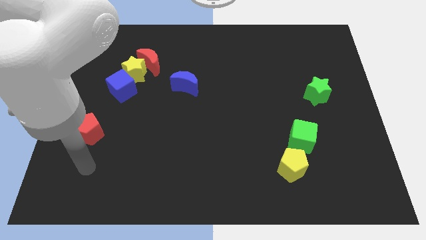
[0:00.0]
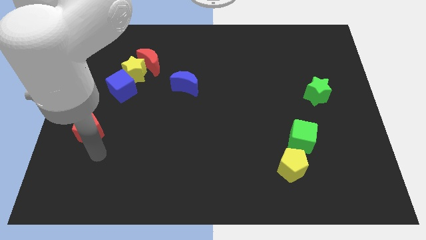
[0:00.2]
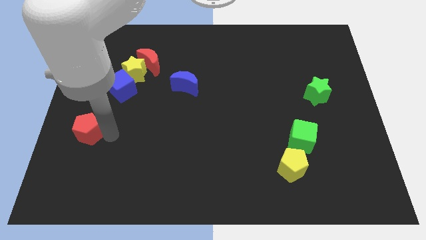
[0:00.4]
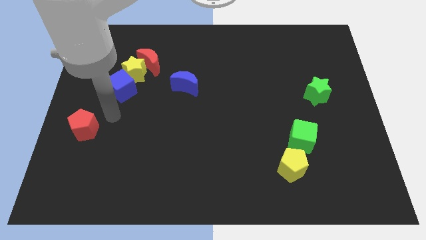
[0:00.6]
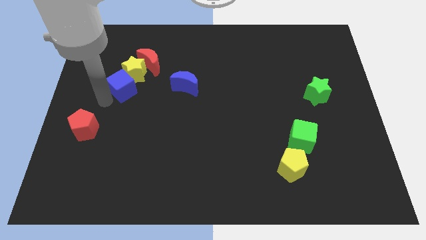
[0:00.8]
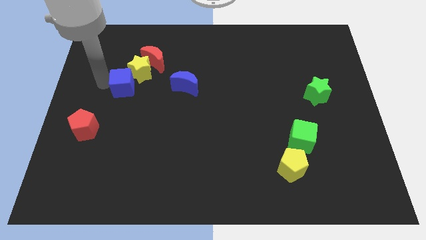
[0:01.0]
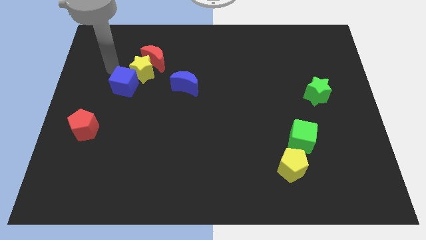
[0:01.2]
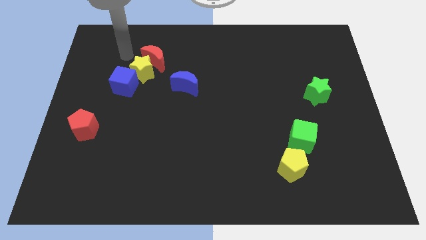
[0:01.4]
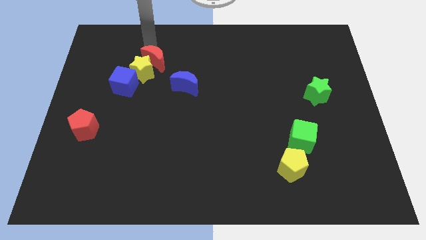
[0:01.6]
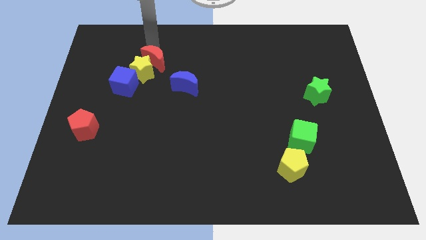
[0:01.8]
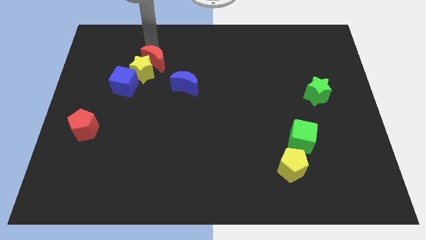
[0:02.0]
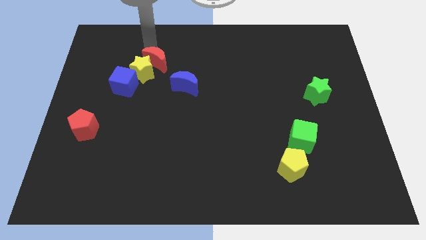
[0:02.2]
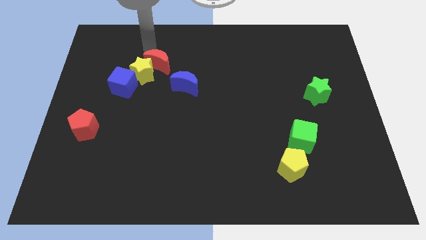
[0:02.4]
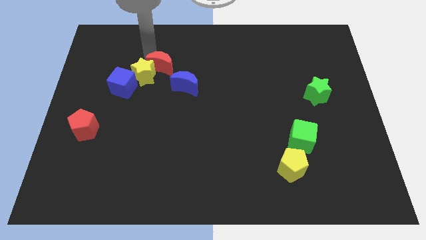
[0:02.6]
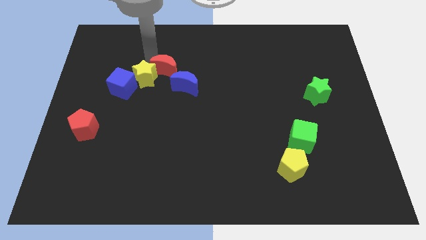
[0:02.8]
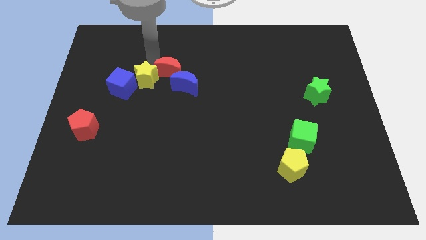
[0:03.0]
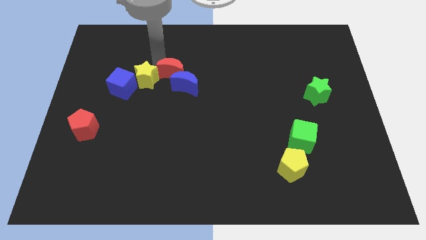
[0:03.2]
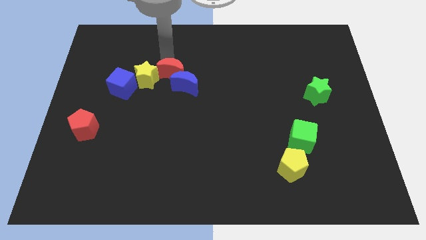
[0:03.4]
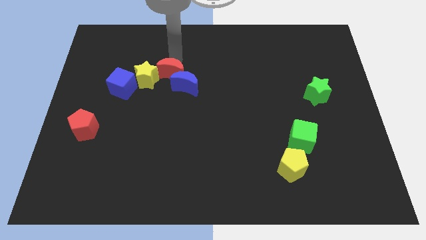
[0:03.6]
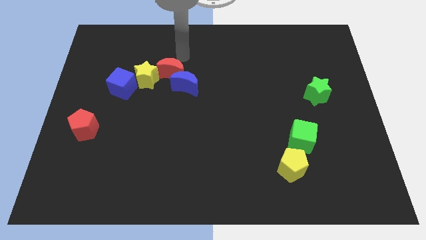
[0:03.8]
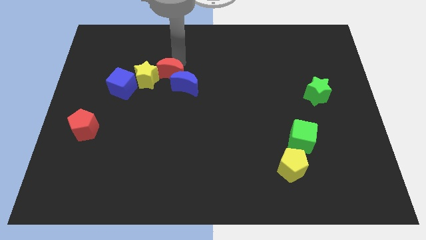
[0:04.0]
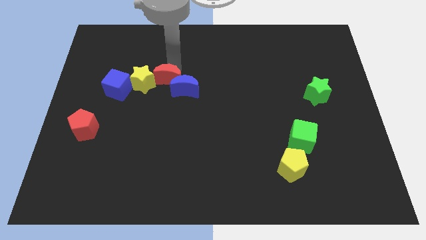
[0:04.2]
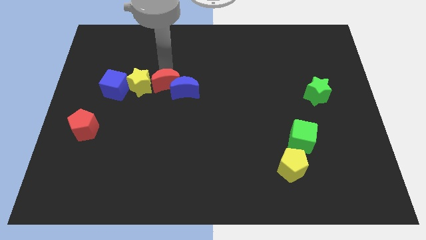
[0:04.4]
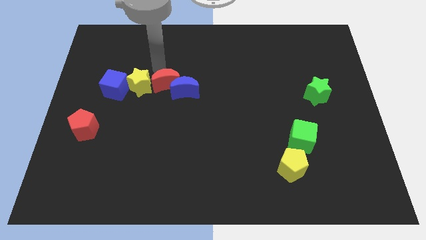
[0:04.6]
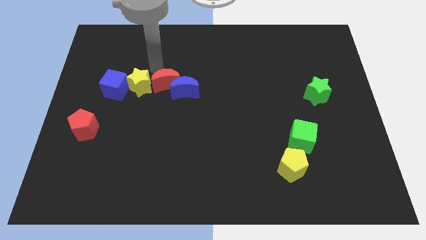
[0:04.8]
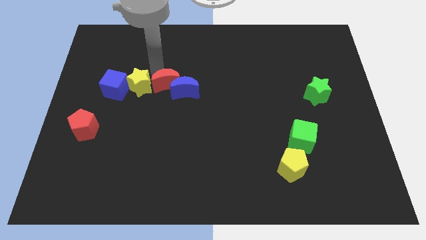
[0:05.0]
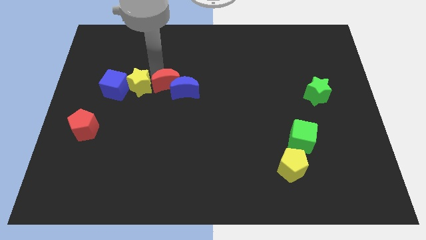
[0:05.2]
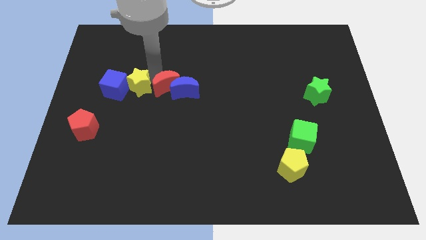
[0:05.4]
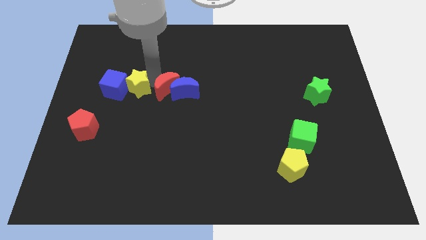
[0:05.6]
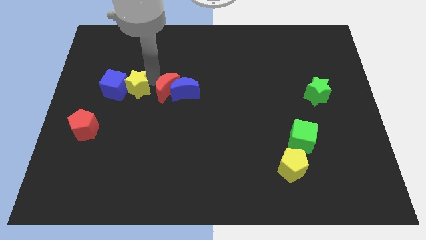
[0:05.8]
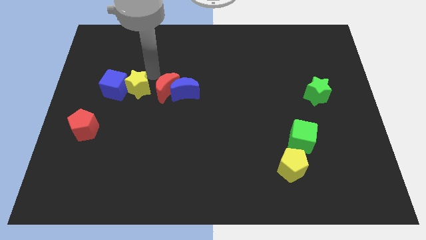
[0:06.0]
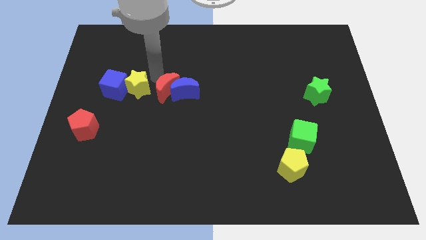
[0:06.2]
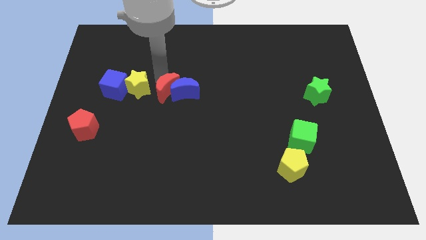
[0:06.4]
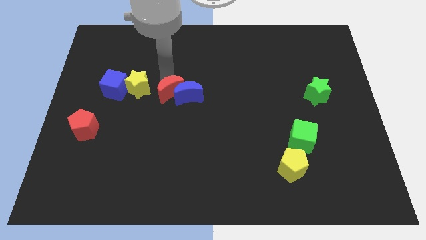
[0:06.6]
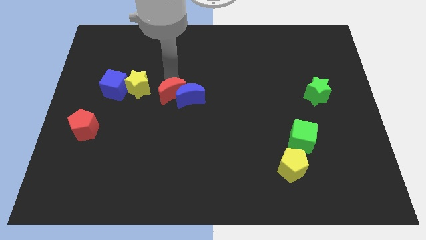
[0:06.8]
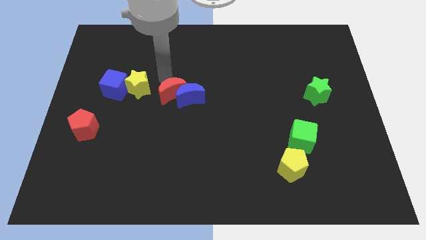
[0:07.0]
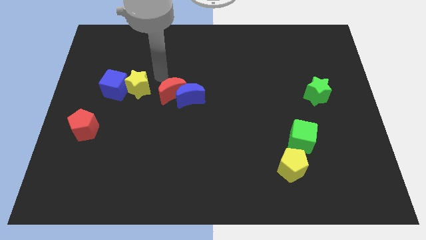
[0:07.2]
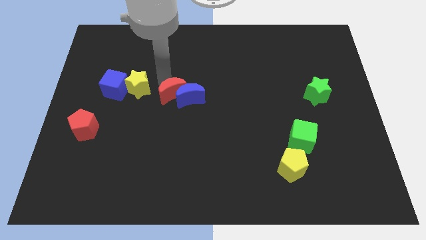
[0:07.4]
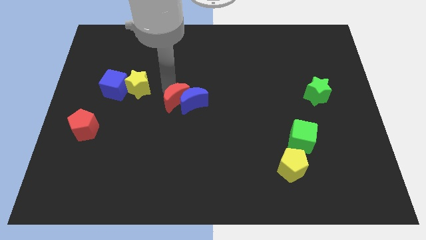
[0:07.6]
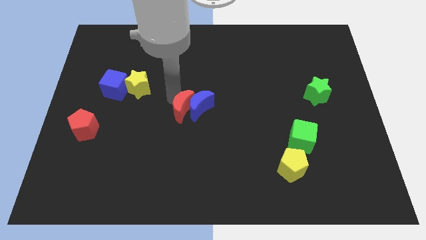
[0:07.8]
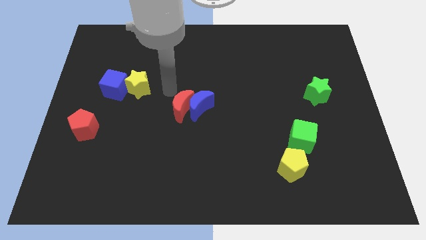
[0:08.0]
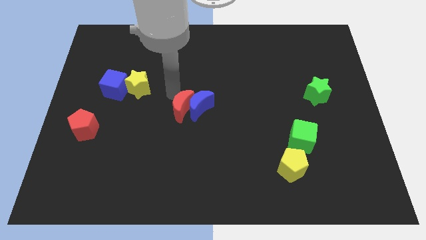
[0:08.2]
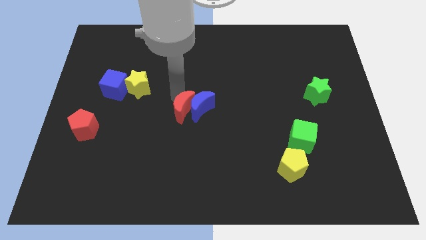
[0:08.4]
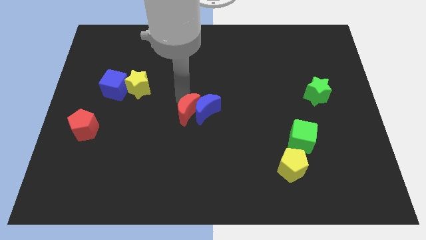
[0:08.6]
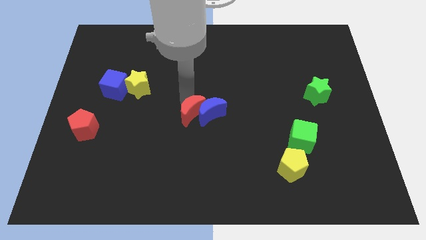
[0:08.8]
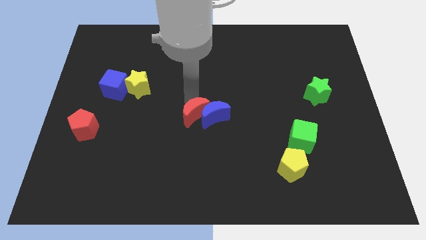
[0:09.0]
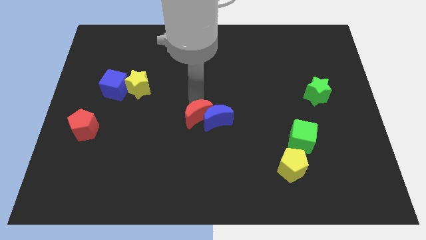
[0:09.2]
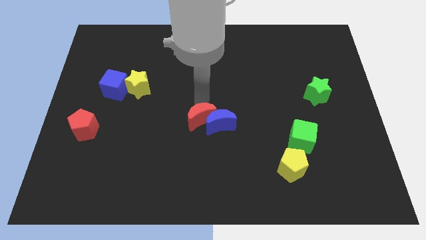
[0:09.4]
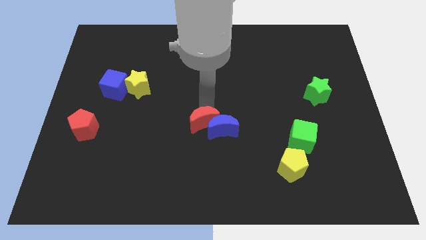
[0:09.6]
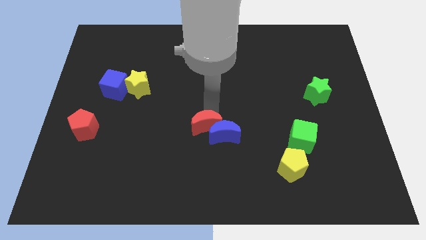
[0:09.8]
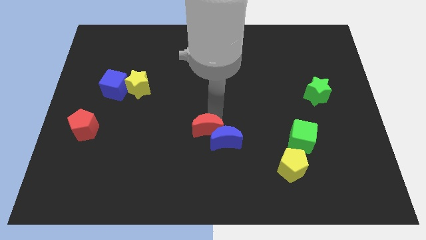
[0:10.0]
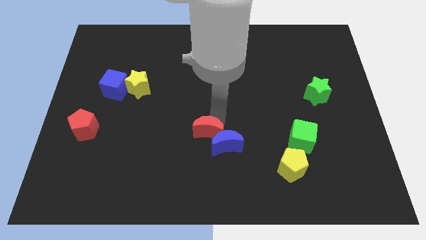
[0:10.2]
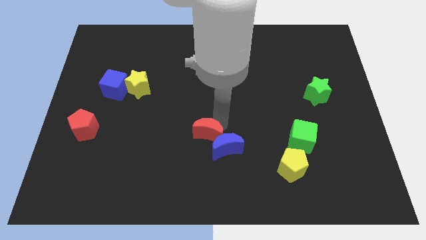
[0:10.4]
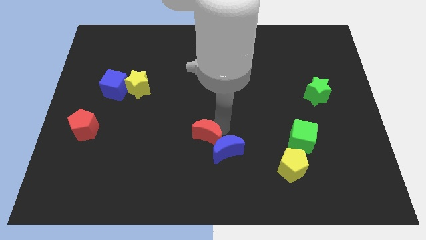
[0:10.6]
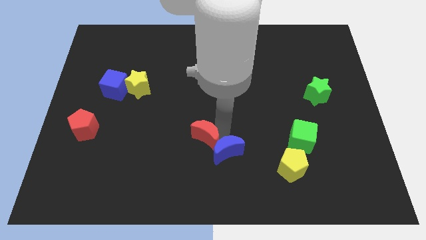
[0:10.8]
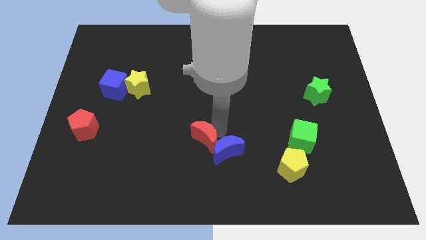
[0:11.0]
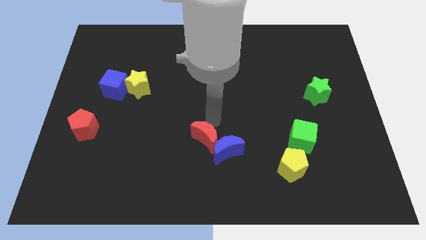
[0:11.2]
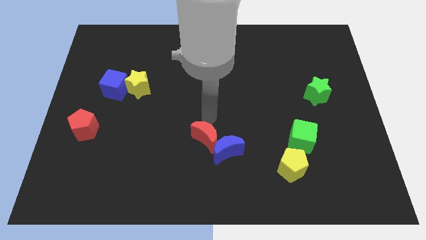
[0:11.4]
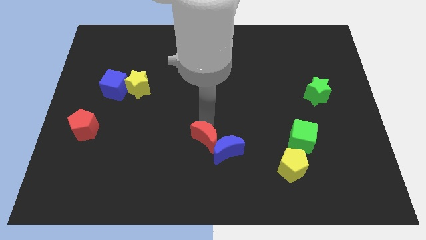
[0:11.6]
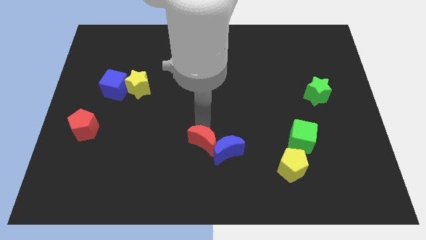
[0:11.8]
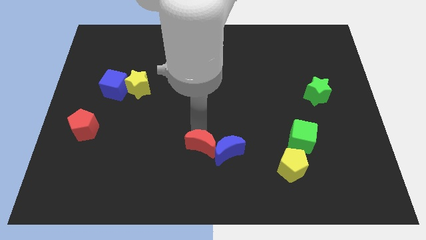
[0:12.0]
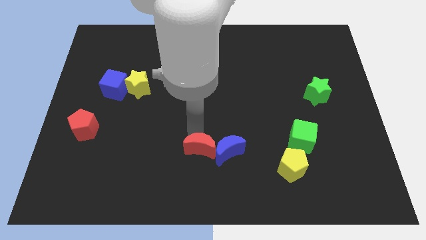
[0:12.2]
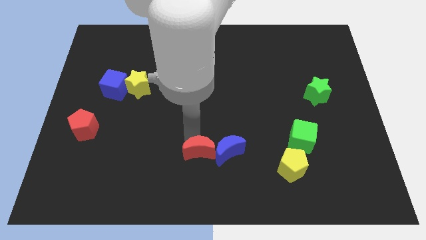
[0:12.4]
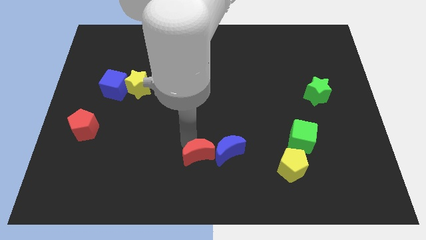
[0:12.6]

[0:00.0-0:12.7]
slide the red moon to the bottom side

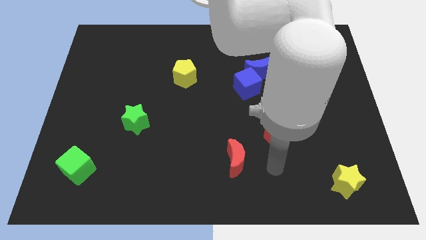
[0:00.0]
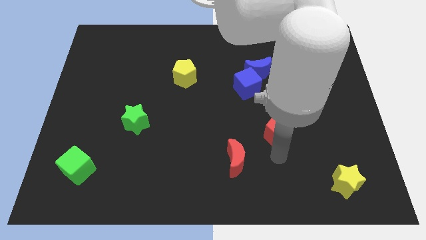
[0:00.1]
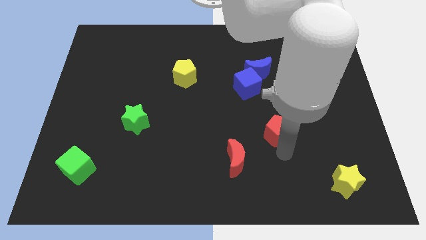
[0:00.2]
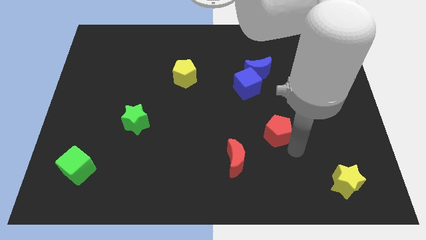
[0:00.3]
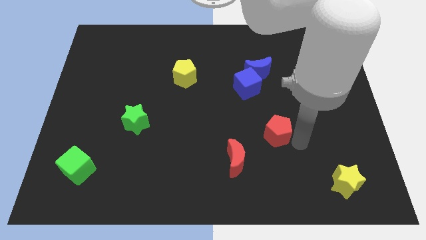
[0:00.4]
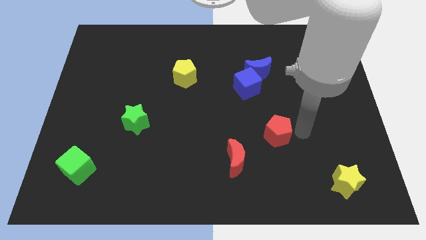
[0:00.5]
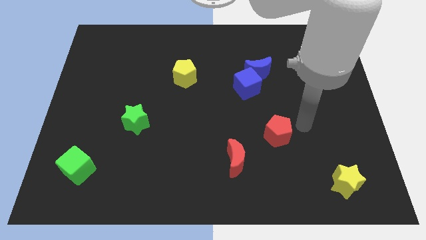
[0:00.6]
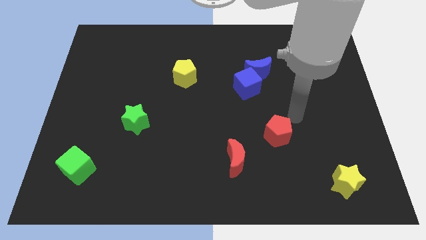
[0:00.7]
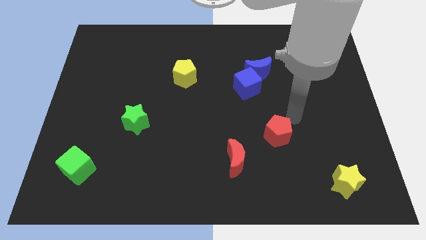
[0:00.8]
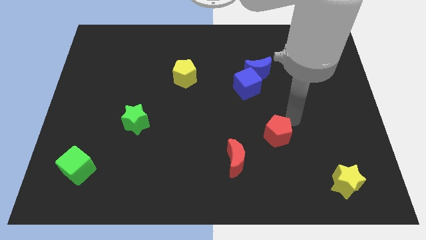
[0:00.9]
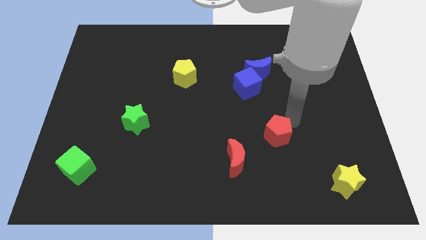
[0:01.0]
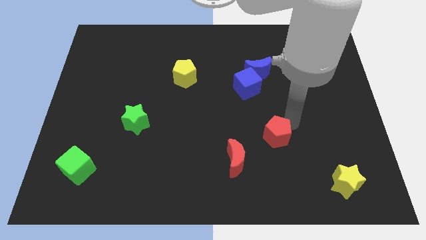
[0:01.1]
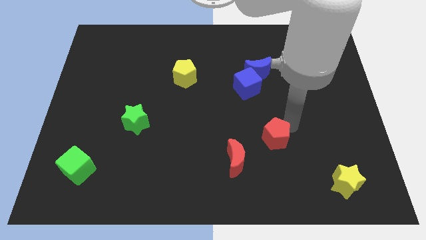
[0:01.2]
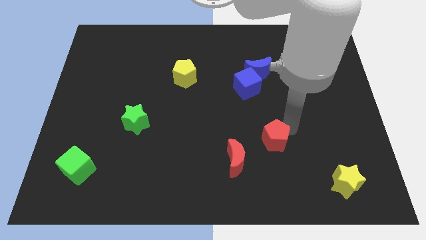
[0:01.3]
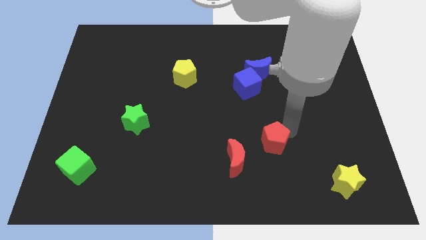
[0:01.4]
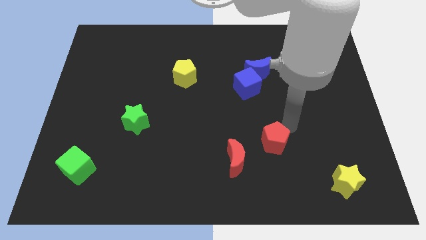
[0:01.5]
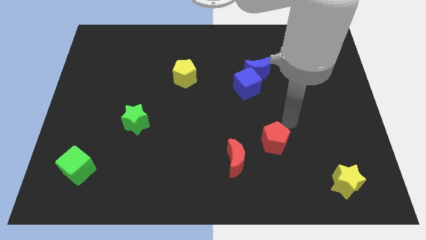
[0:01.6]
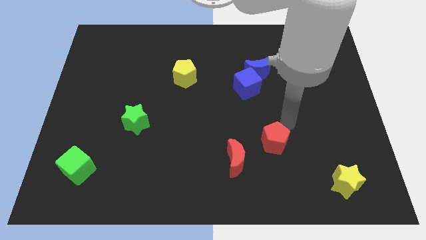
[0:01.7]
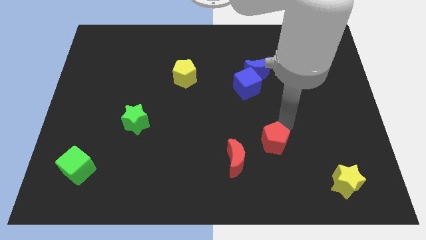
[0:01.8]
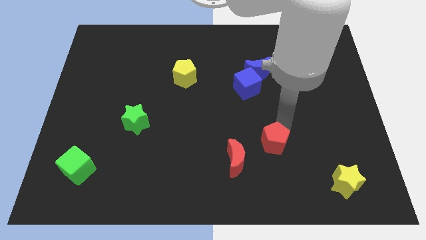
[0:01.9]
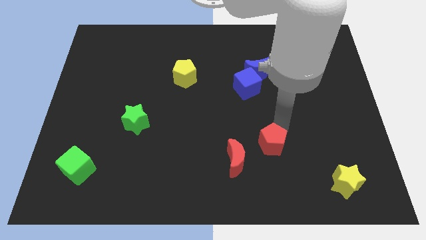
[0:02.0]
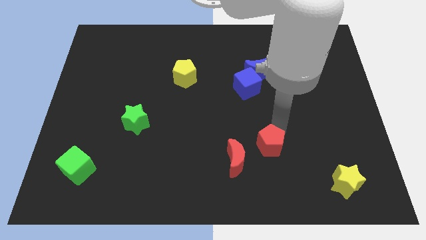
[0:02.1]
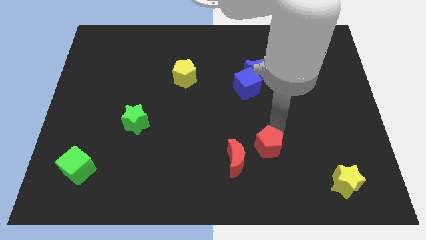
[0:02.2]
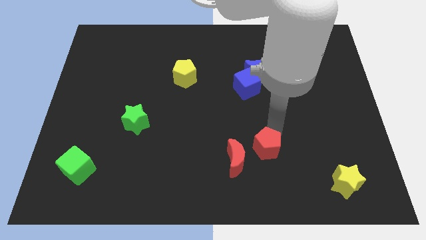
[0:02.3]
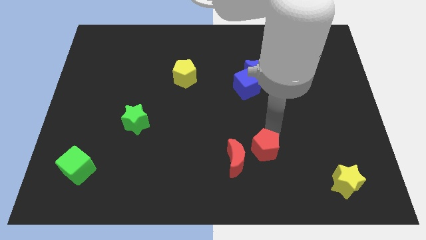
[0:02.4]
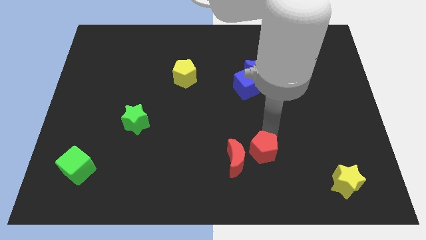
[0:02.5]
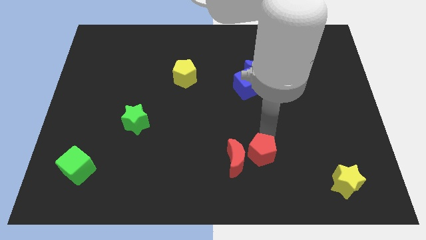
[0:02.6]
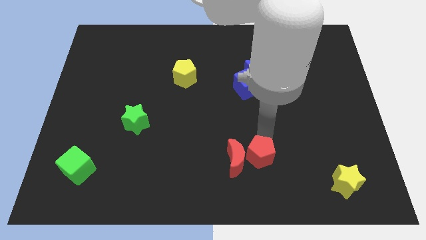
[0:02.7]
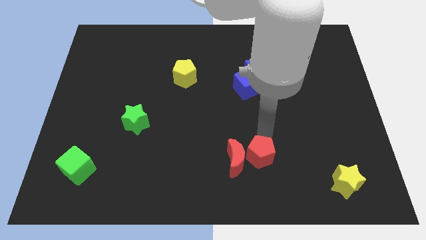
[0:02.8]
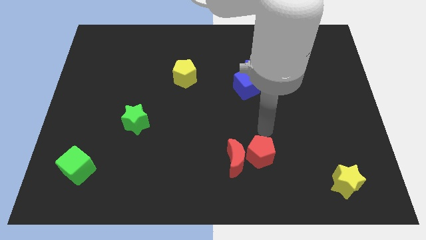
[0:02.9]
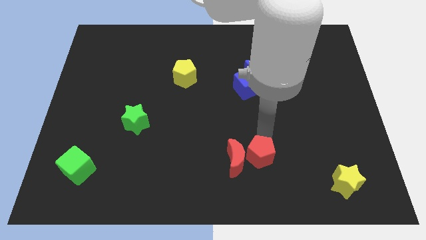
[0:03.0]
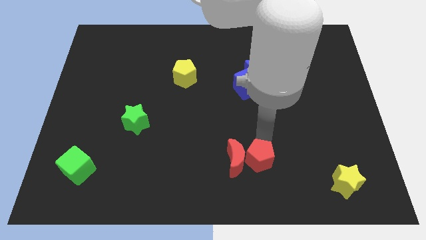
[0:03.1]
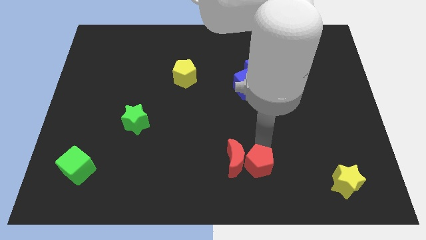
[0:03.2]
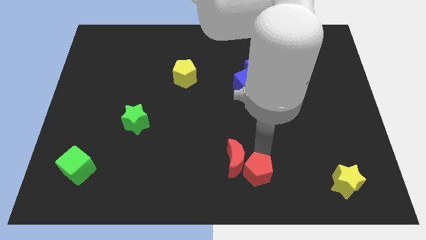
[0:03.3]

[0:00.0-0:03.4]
slide the red pentagon to the bottom
